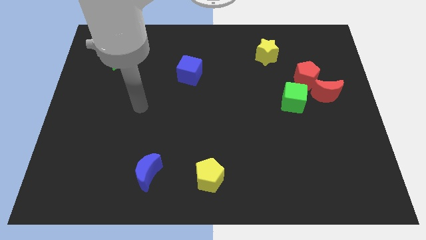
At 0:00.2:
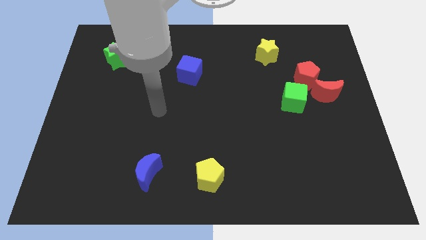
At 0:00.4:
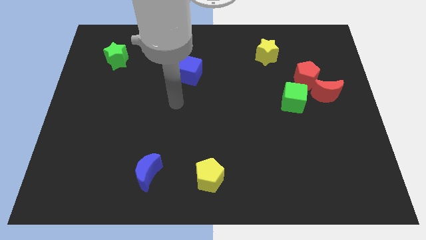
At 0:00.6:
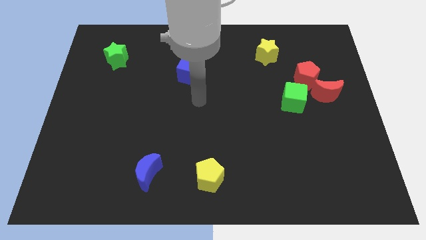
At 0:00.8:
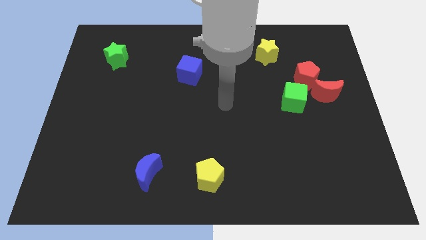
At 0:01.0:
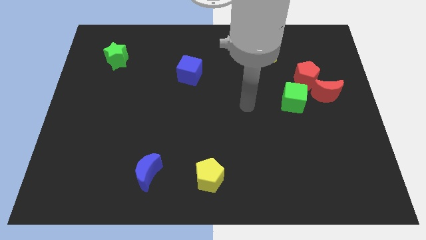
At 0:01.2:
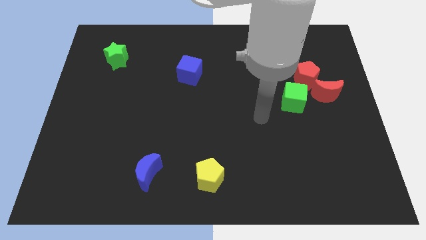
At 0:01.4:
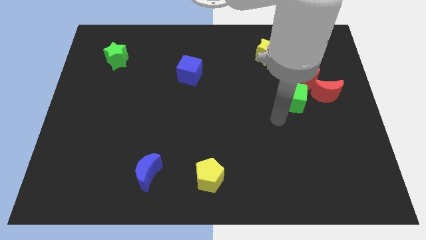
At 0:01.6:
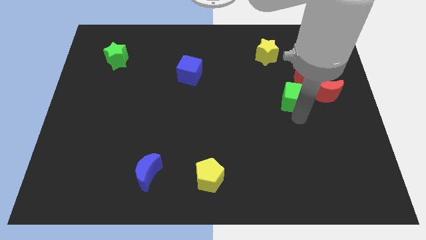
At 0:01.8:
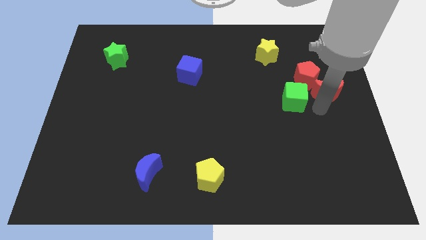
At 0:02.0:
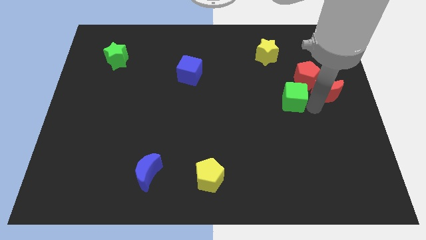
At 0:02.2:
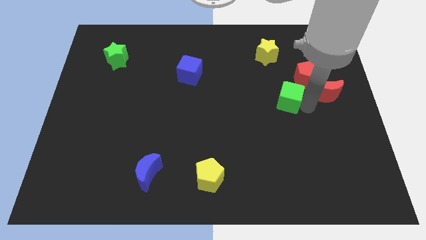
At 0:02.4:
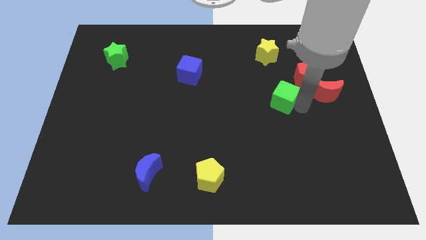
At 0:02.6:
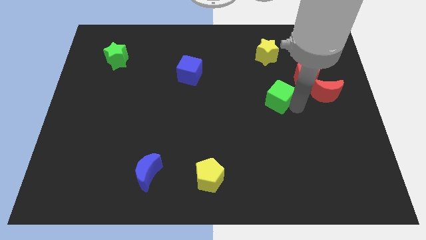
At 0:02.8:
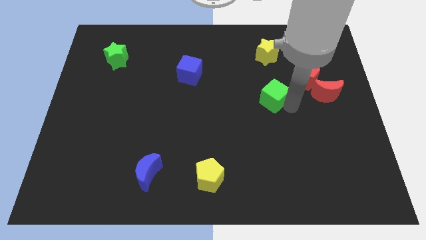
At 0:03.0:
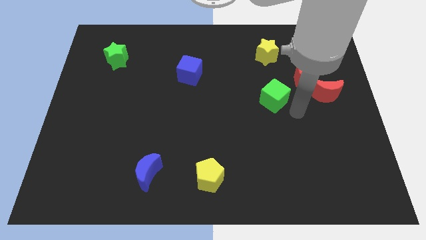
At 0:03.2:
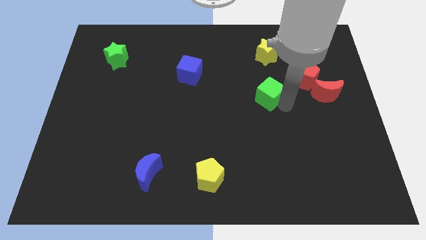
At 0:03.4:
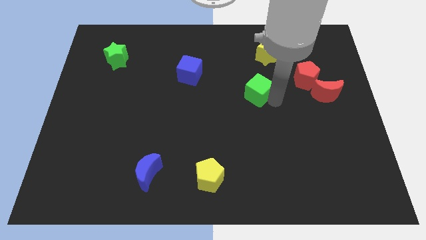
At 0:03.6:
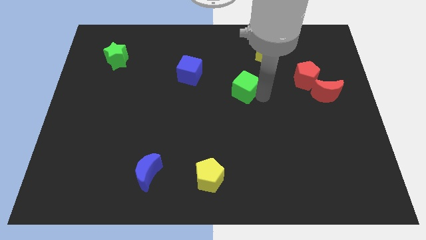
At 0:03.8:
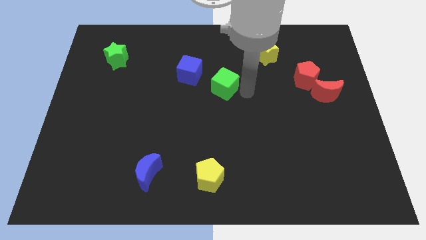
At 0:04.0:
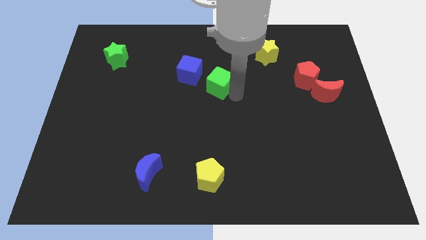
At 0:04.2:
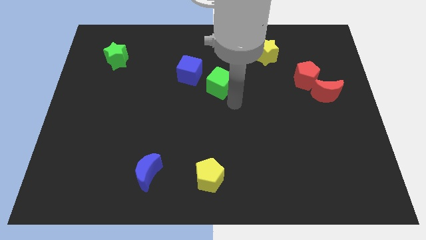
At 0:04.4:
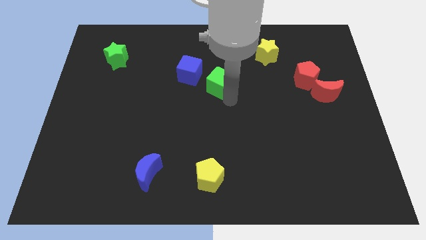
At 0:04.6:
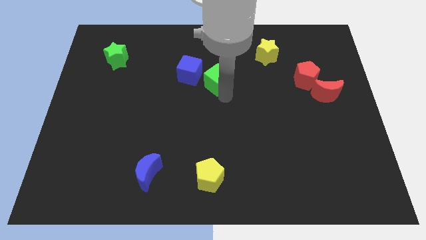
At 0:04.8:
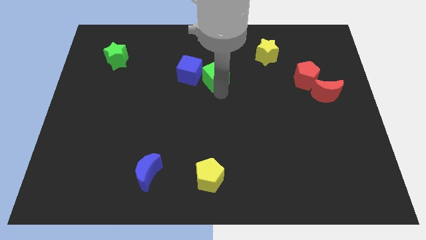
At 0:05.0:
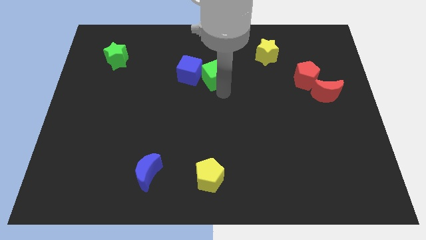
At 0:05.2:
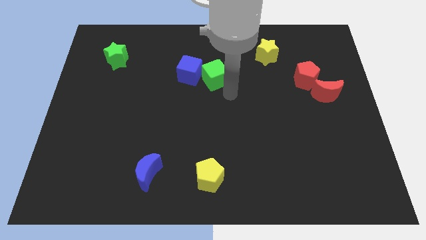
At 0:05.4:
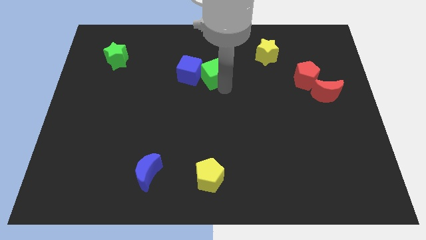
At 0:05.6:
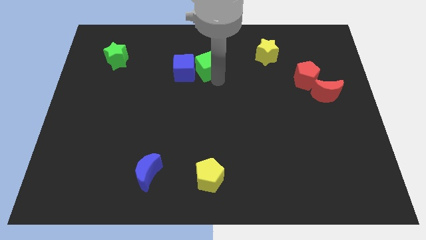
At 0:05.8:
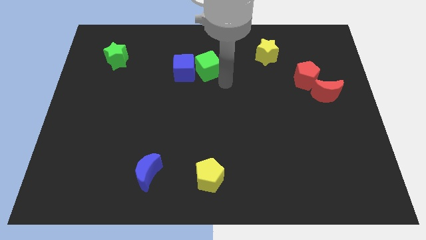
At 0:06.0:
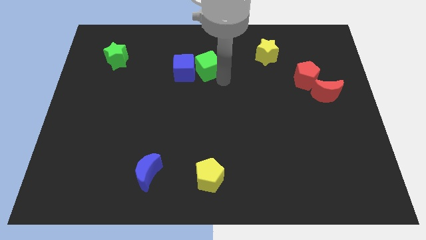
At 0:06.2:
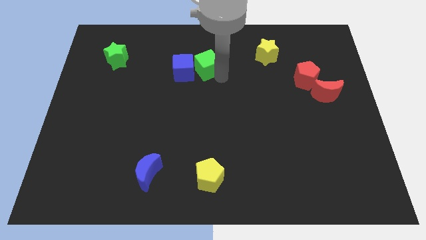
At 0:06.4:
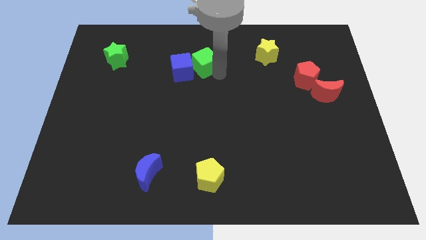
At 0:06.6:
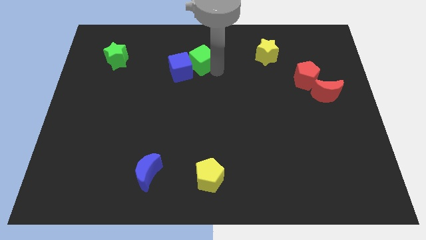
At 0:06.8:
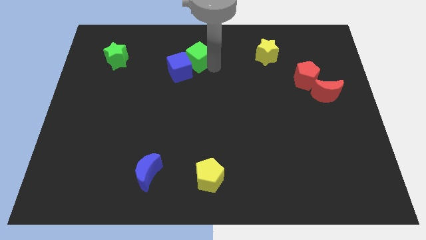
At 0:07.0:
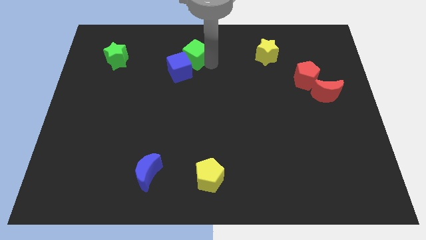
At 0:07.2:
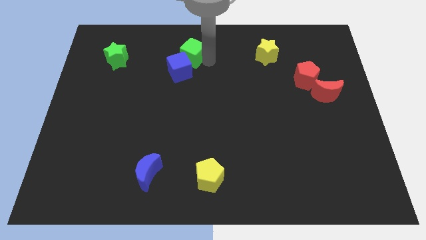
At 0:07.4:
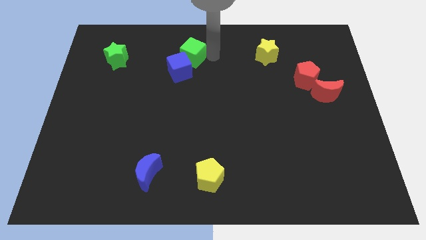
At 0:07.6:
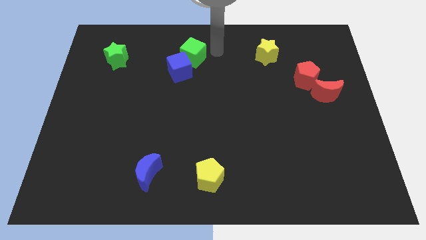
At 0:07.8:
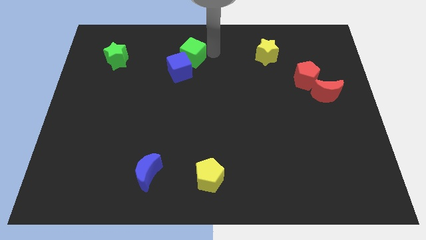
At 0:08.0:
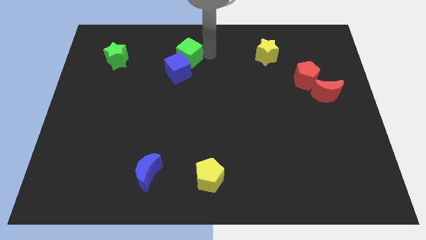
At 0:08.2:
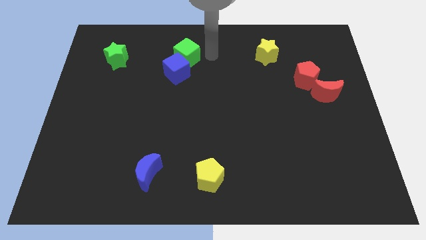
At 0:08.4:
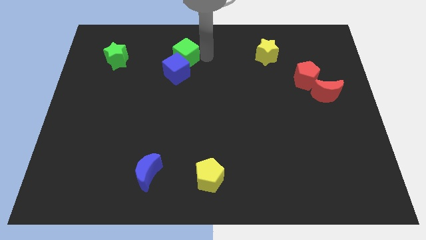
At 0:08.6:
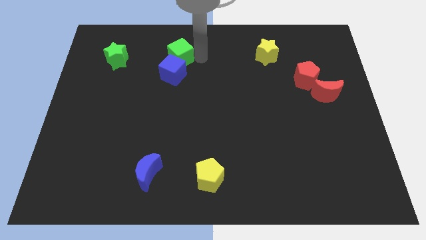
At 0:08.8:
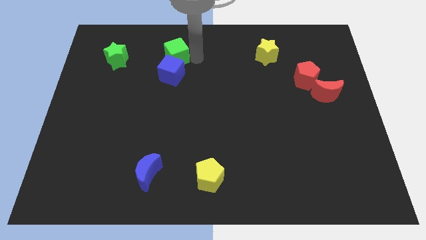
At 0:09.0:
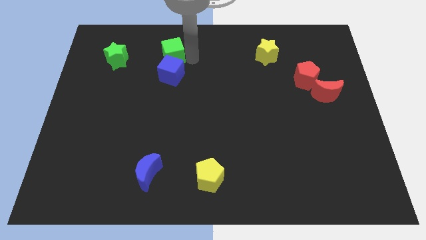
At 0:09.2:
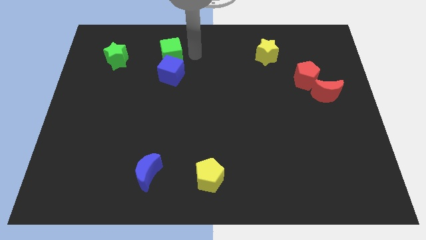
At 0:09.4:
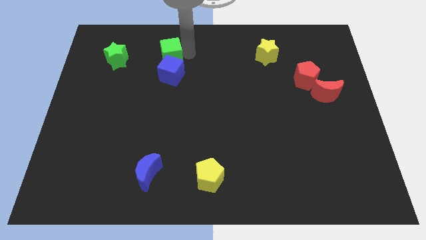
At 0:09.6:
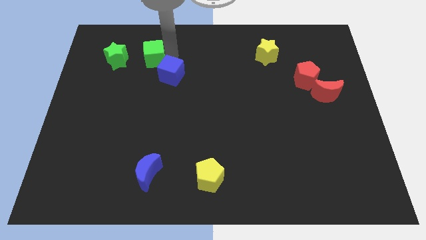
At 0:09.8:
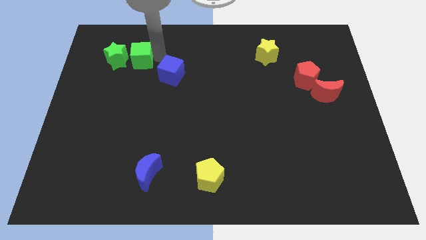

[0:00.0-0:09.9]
move the green cube close to the green star

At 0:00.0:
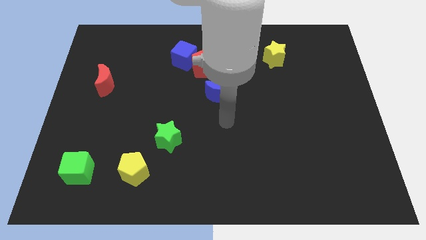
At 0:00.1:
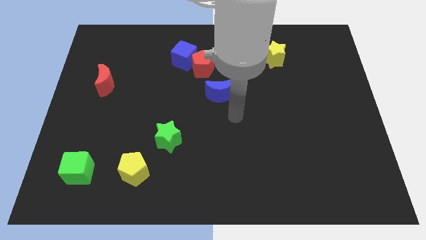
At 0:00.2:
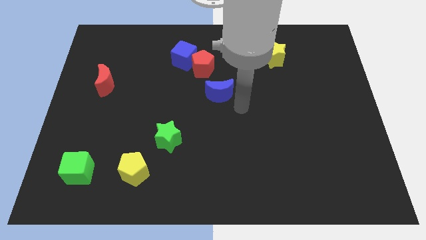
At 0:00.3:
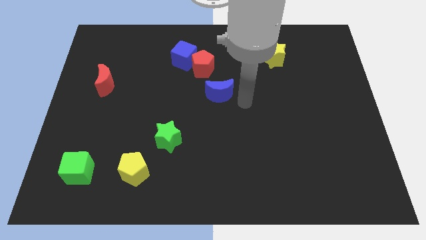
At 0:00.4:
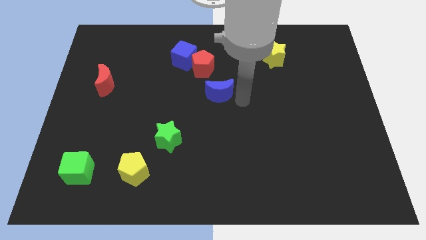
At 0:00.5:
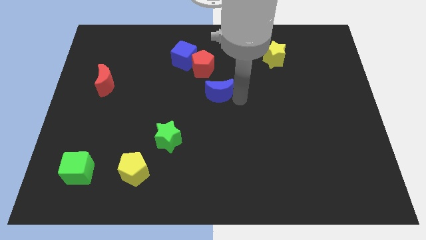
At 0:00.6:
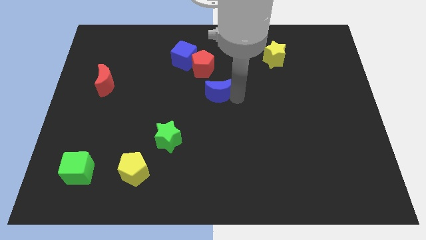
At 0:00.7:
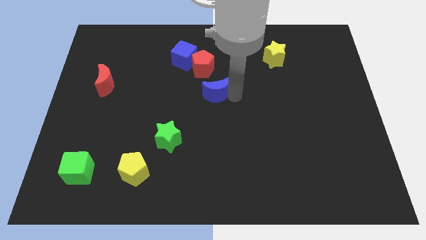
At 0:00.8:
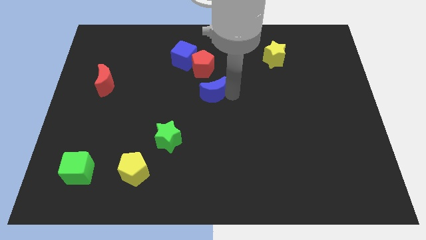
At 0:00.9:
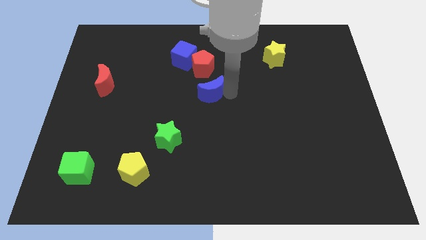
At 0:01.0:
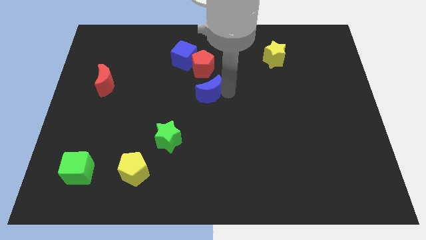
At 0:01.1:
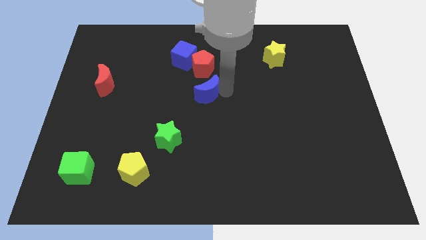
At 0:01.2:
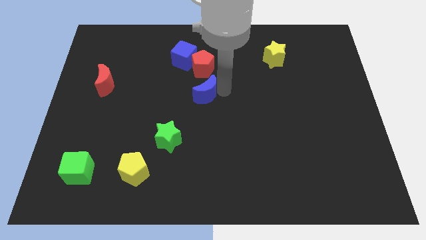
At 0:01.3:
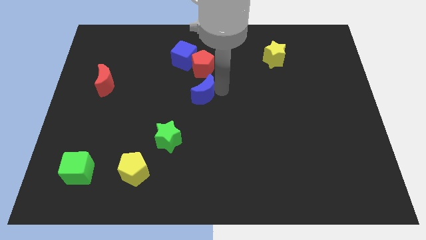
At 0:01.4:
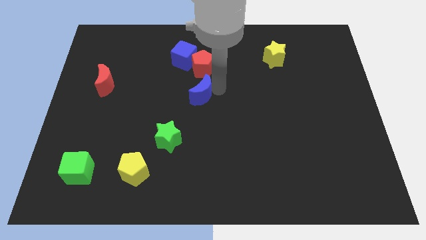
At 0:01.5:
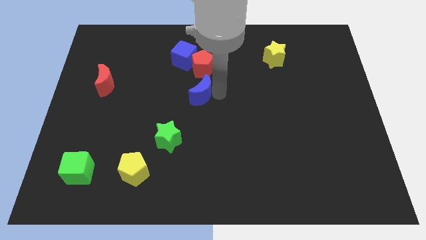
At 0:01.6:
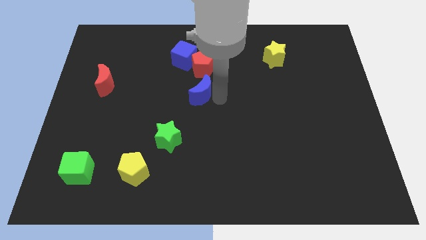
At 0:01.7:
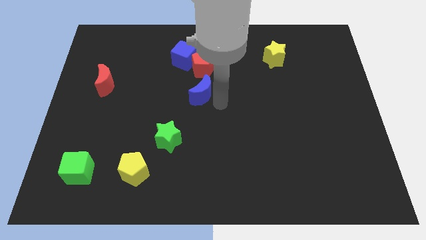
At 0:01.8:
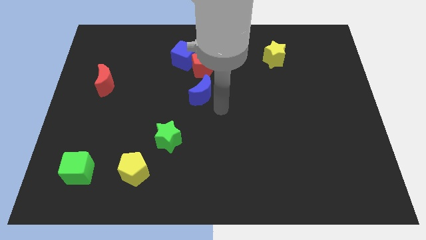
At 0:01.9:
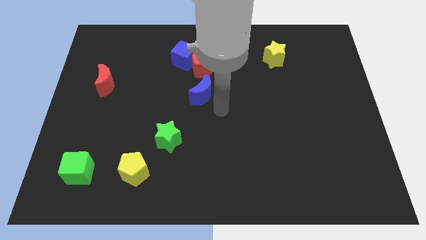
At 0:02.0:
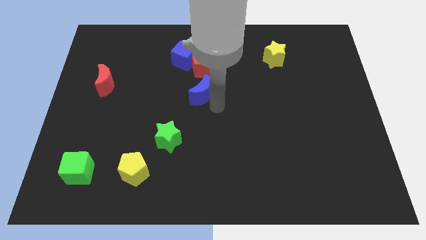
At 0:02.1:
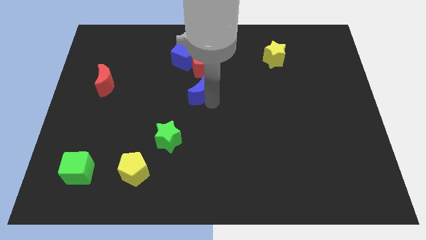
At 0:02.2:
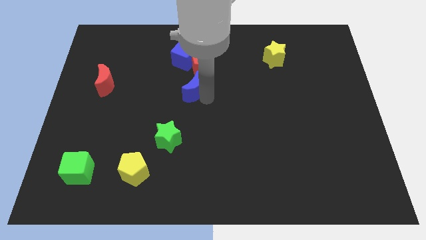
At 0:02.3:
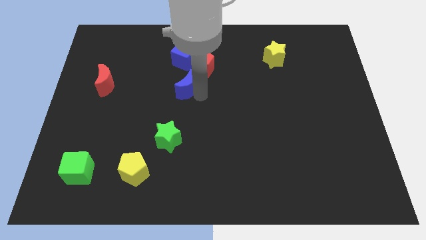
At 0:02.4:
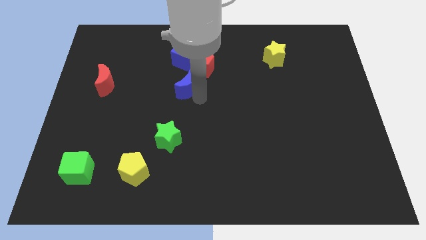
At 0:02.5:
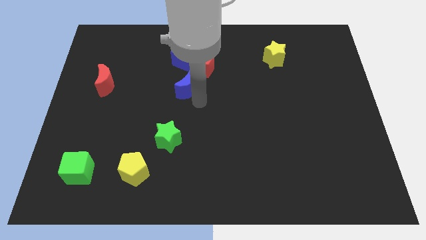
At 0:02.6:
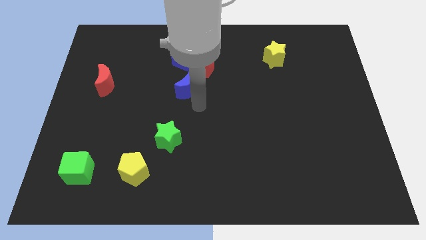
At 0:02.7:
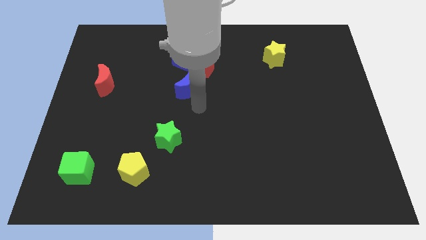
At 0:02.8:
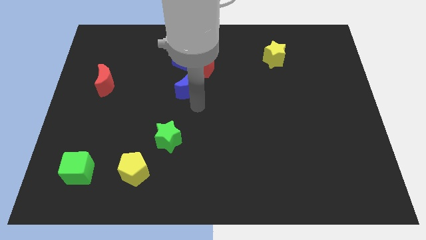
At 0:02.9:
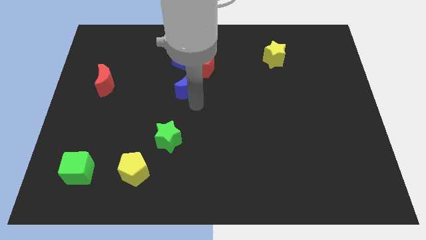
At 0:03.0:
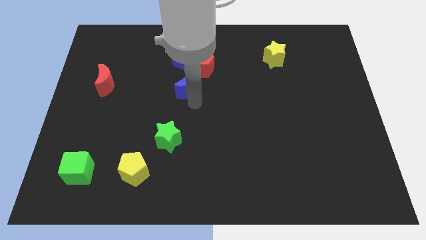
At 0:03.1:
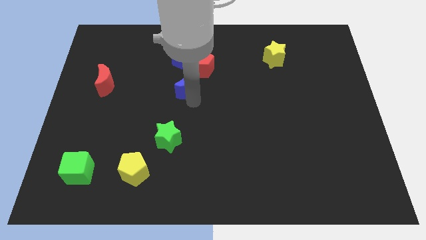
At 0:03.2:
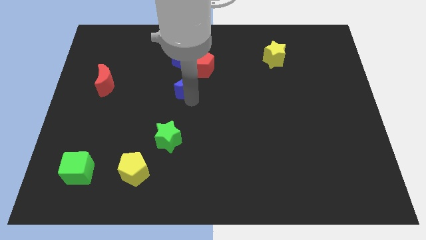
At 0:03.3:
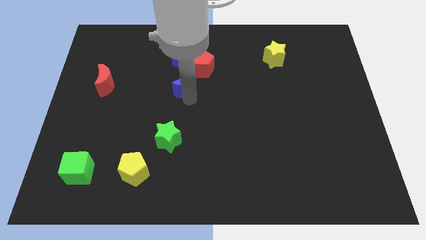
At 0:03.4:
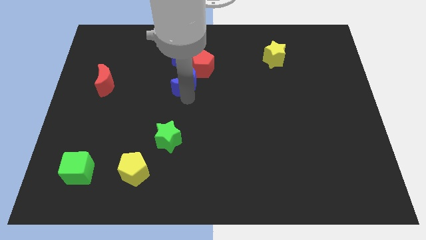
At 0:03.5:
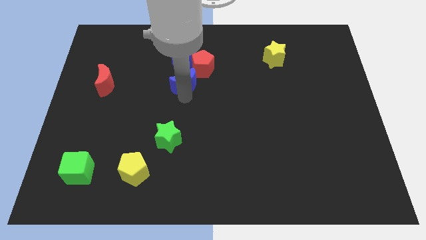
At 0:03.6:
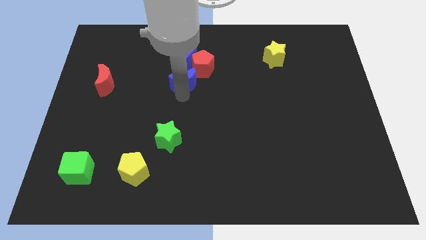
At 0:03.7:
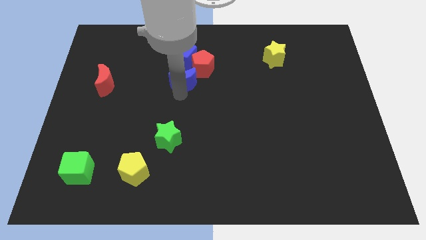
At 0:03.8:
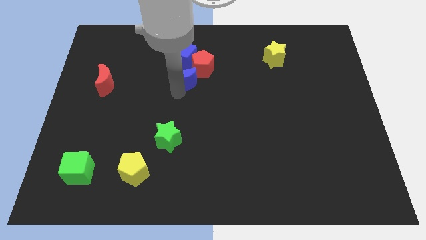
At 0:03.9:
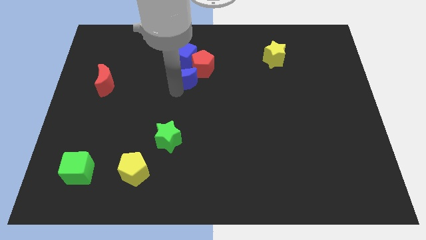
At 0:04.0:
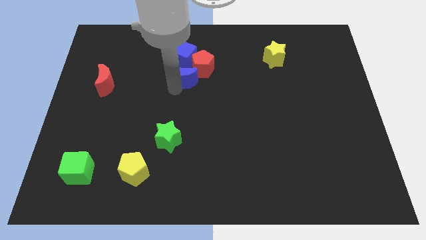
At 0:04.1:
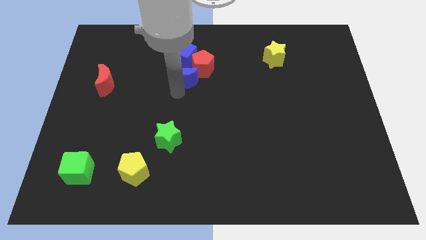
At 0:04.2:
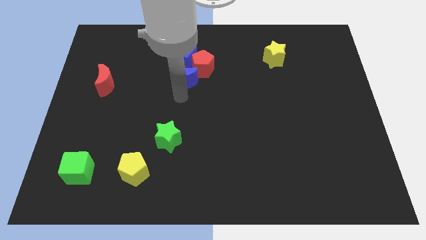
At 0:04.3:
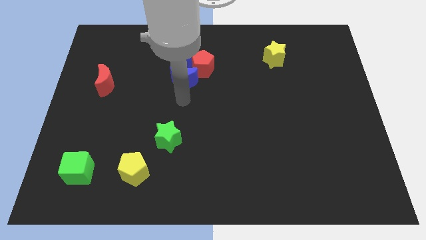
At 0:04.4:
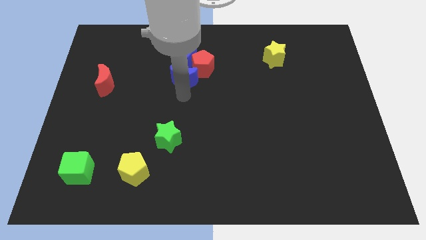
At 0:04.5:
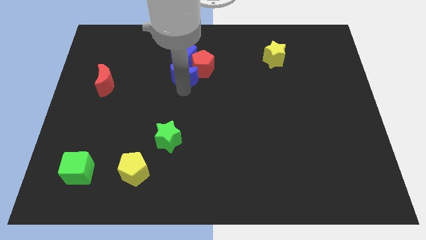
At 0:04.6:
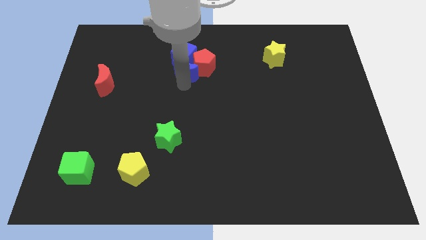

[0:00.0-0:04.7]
slide the blue moon close to the blue cube
